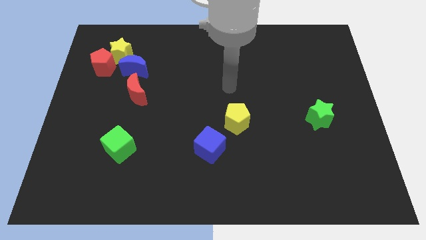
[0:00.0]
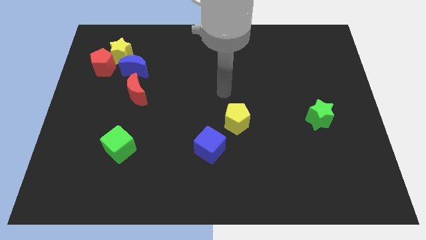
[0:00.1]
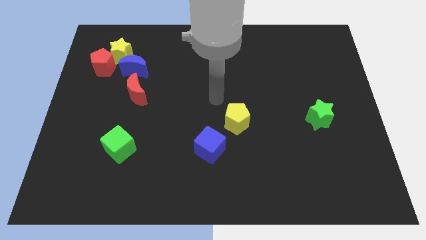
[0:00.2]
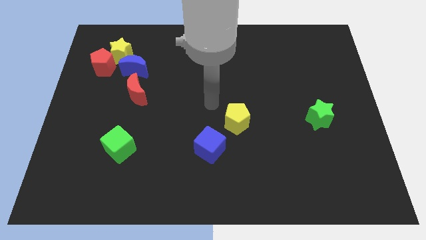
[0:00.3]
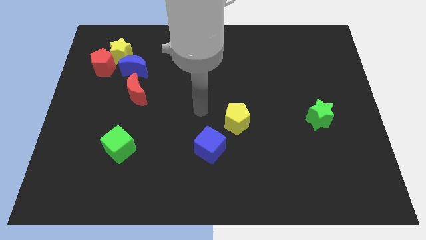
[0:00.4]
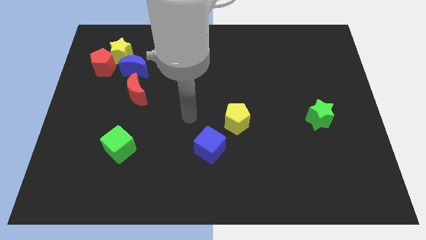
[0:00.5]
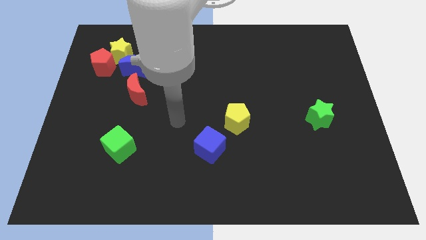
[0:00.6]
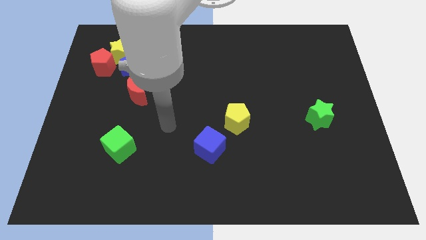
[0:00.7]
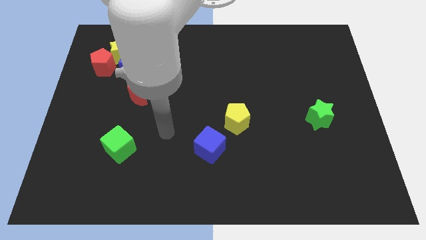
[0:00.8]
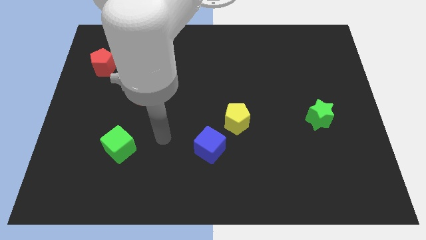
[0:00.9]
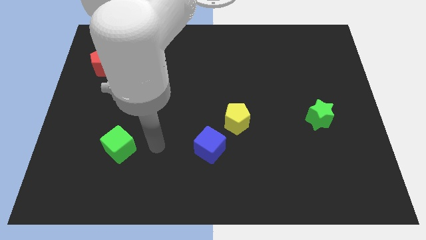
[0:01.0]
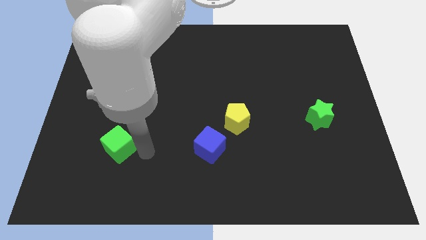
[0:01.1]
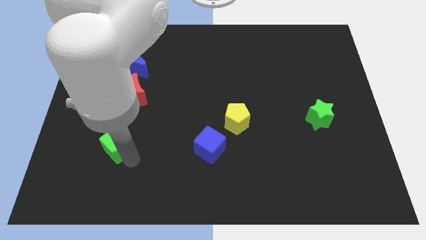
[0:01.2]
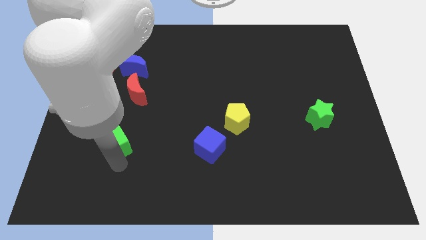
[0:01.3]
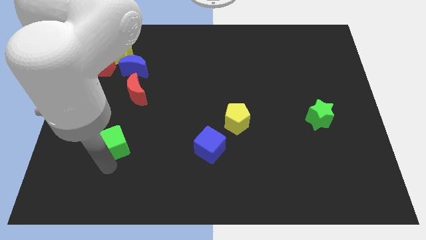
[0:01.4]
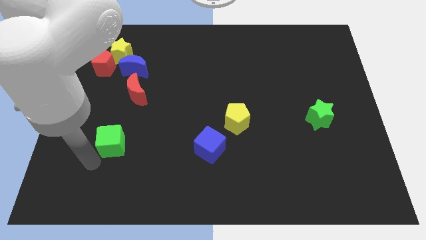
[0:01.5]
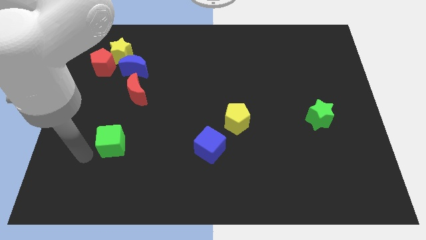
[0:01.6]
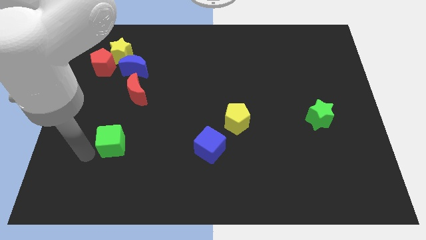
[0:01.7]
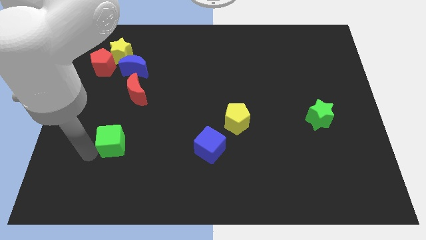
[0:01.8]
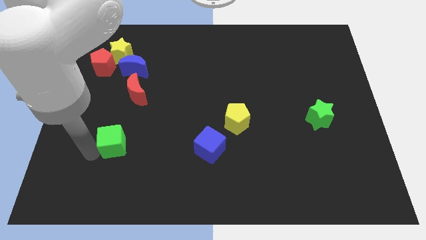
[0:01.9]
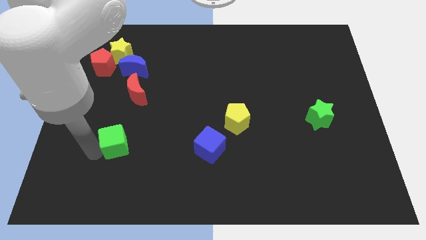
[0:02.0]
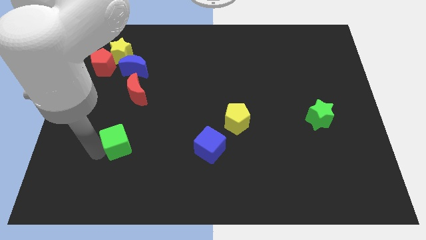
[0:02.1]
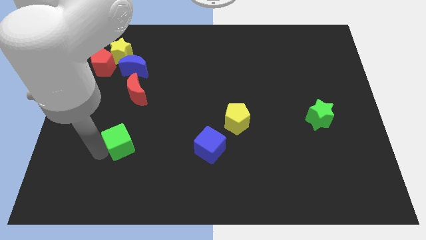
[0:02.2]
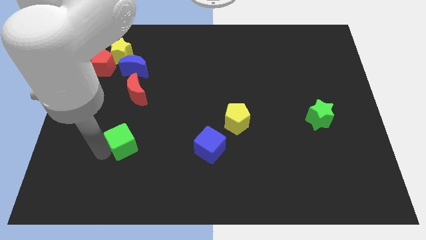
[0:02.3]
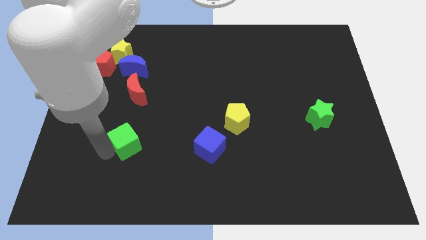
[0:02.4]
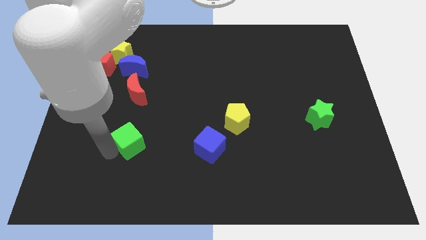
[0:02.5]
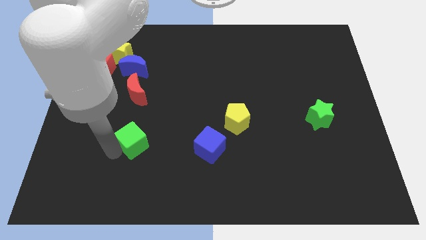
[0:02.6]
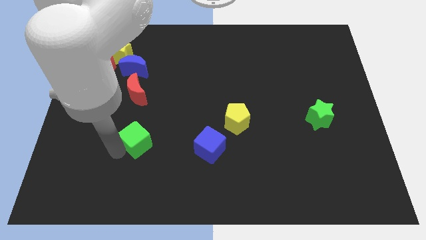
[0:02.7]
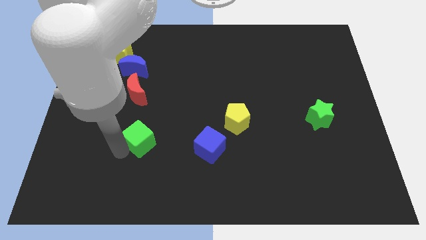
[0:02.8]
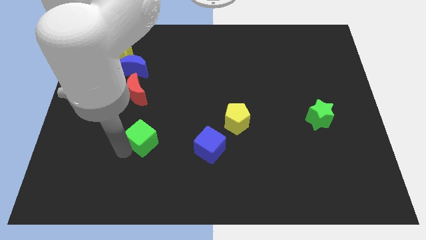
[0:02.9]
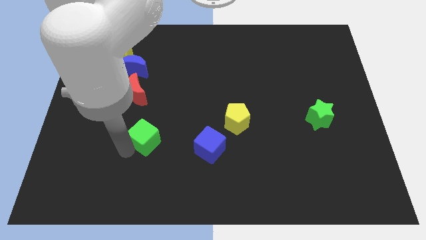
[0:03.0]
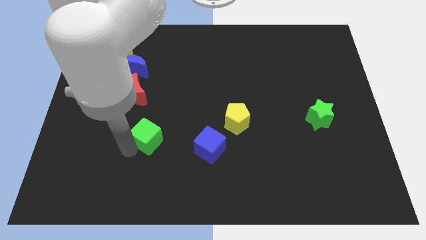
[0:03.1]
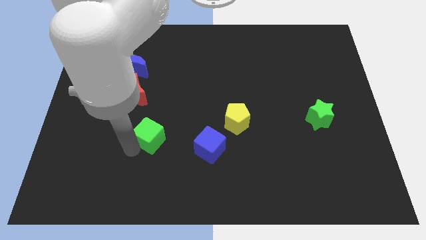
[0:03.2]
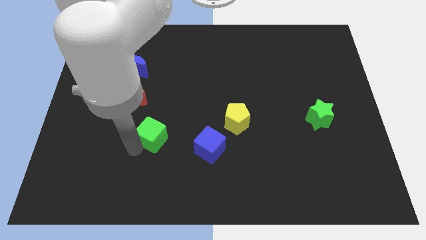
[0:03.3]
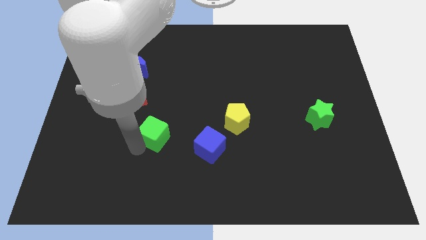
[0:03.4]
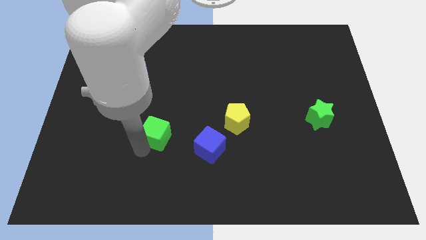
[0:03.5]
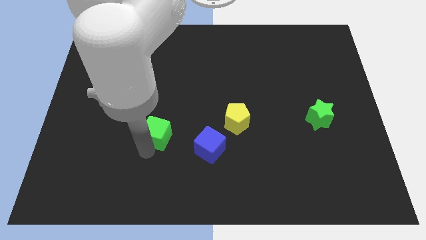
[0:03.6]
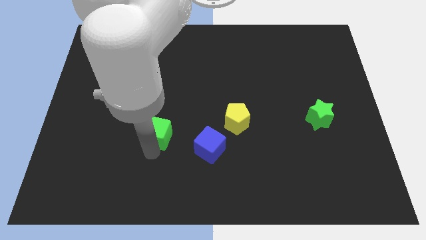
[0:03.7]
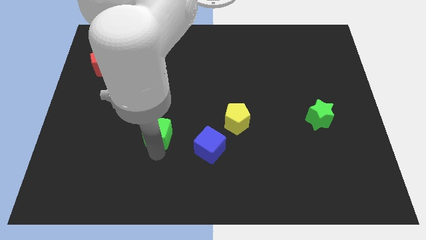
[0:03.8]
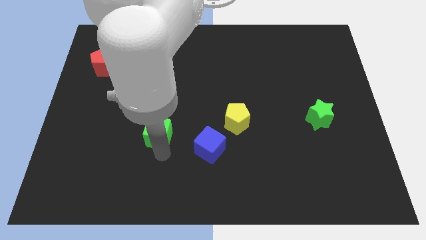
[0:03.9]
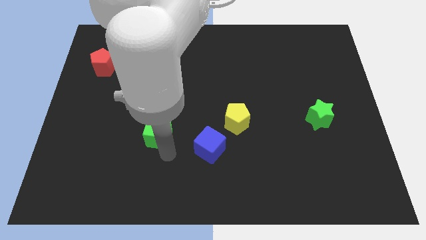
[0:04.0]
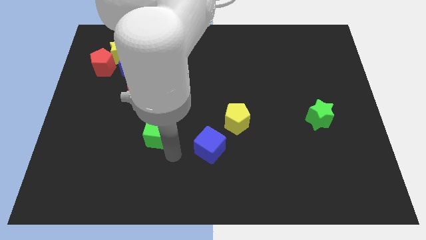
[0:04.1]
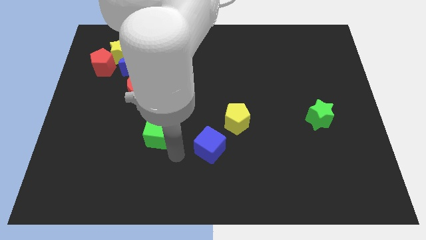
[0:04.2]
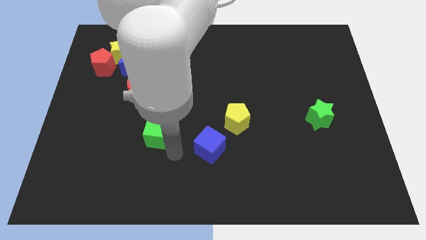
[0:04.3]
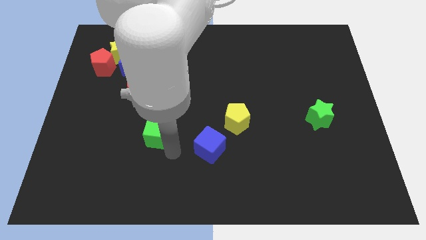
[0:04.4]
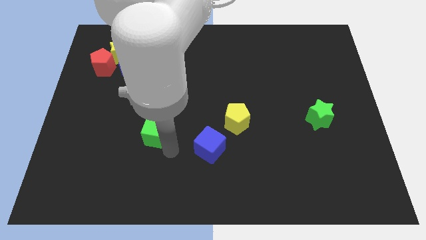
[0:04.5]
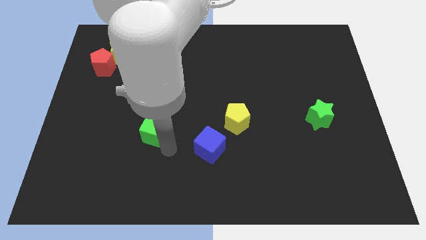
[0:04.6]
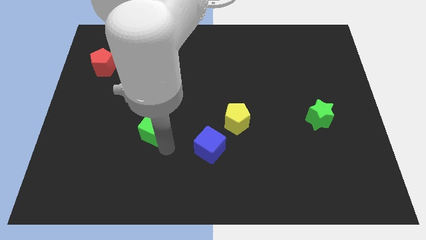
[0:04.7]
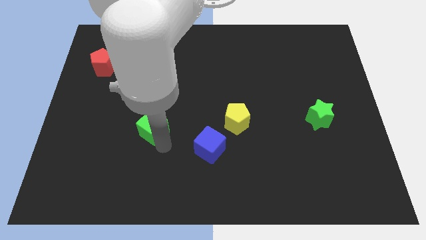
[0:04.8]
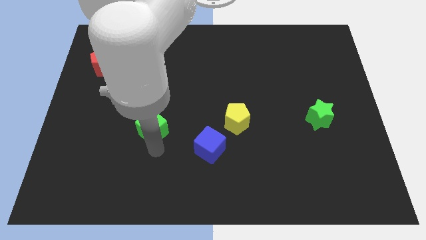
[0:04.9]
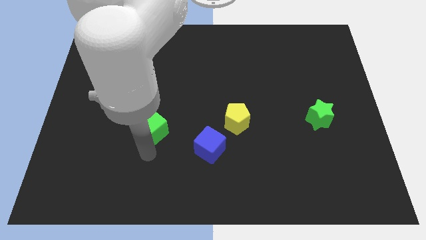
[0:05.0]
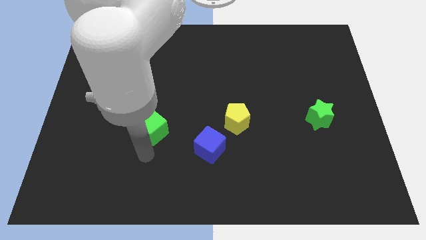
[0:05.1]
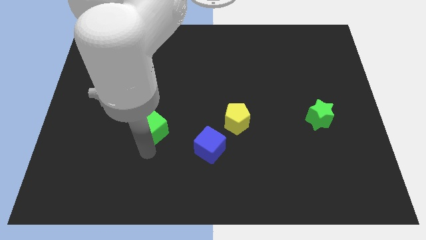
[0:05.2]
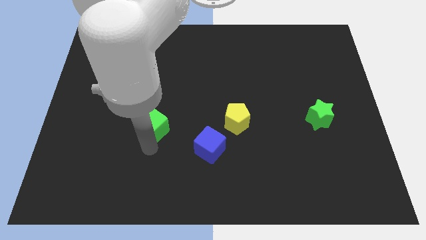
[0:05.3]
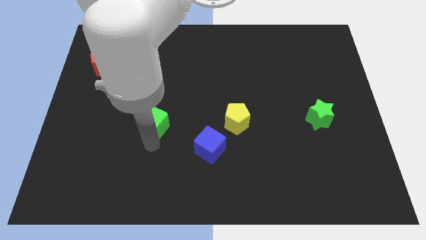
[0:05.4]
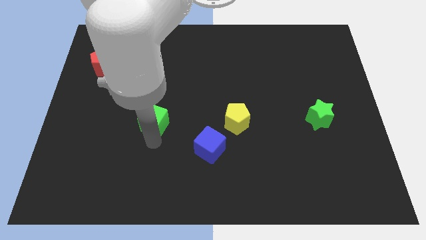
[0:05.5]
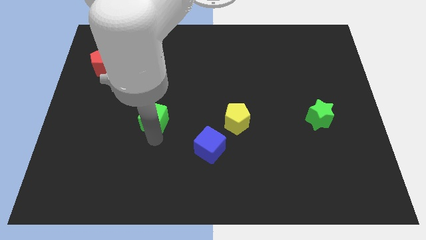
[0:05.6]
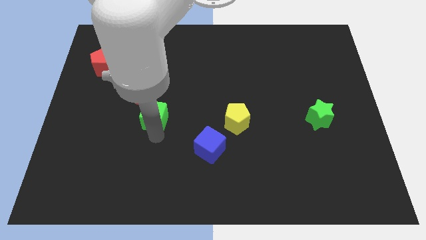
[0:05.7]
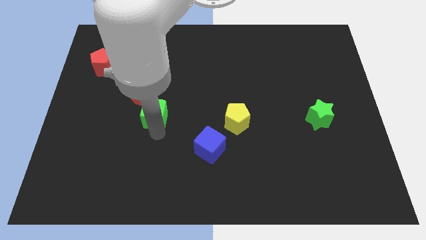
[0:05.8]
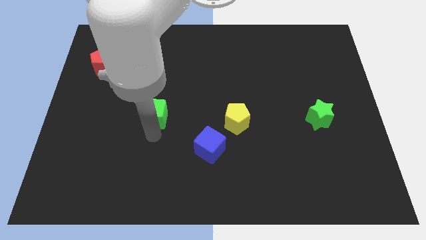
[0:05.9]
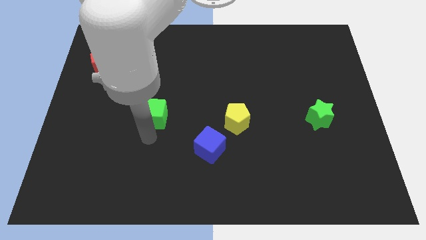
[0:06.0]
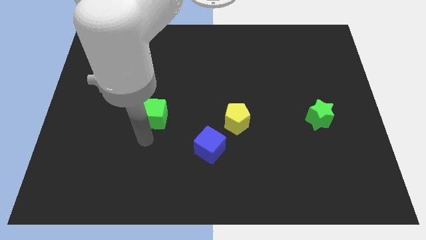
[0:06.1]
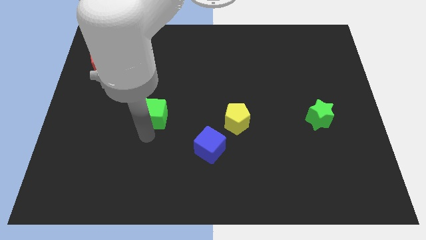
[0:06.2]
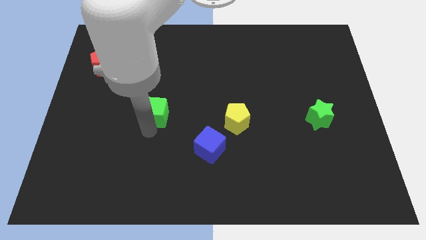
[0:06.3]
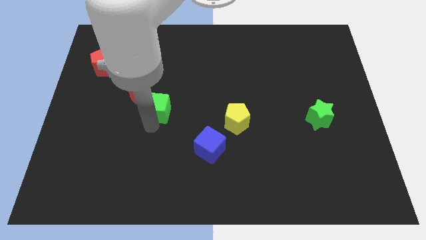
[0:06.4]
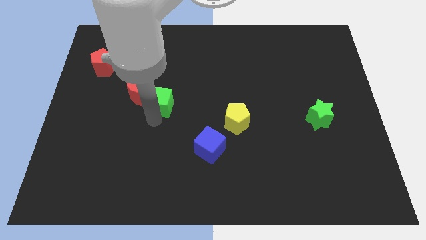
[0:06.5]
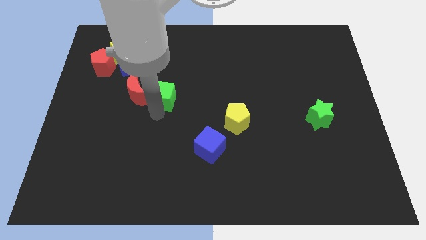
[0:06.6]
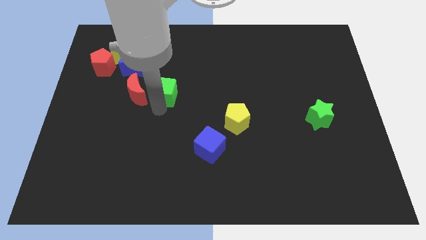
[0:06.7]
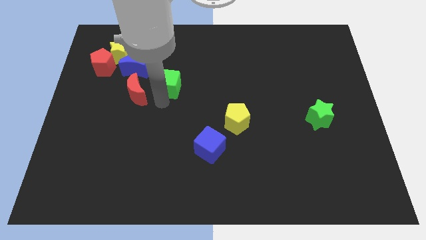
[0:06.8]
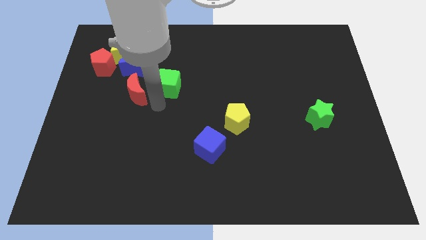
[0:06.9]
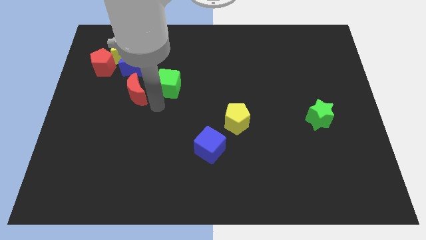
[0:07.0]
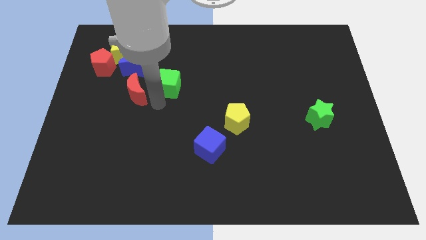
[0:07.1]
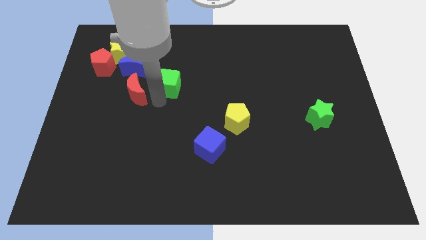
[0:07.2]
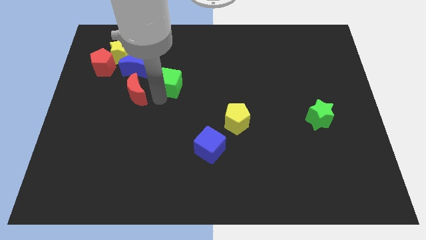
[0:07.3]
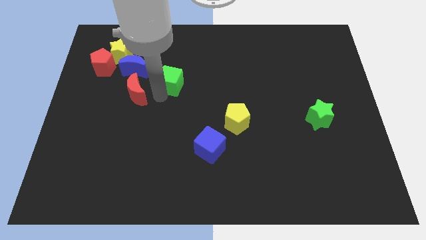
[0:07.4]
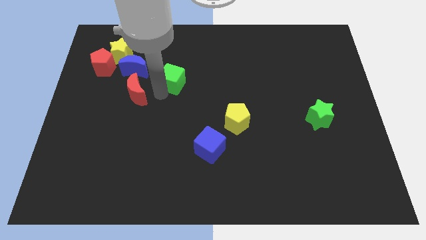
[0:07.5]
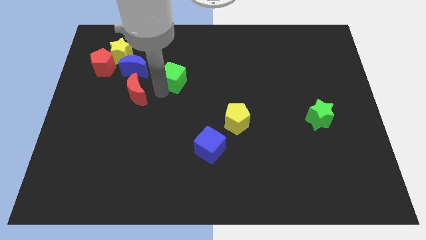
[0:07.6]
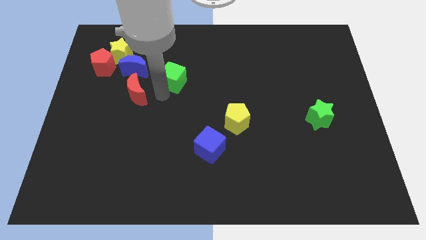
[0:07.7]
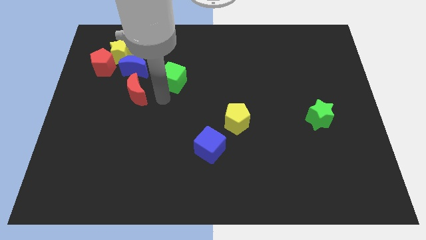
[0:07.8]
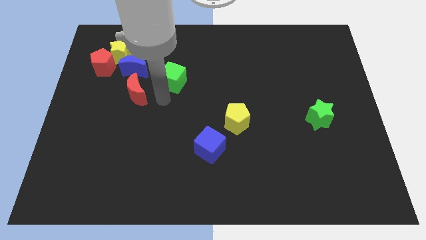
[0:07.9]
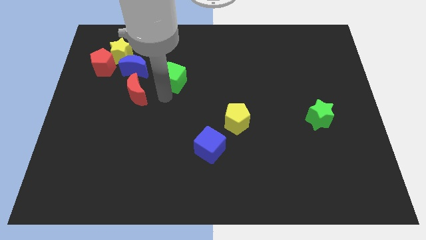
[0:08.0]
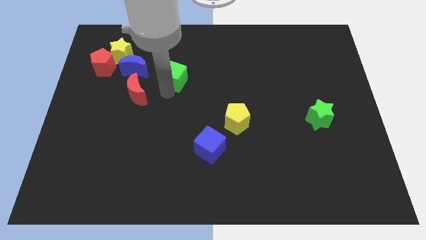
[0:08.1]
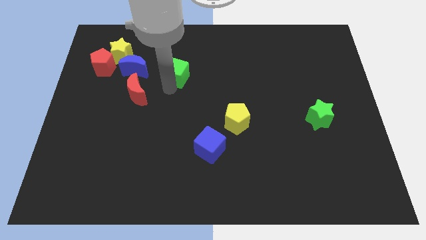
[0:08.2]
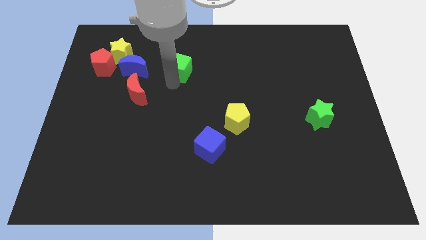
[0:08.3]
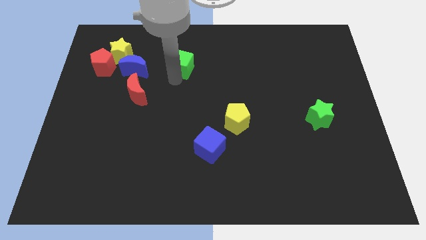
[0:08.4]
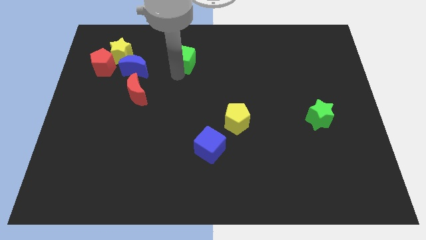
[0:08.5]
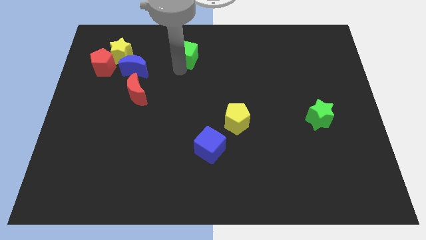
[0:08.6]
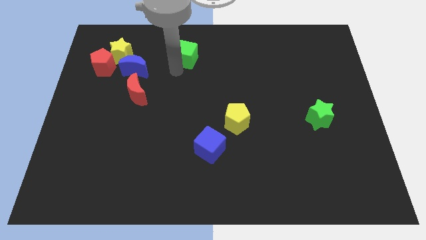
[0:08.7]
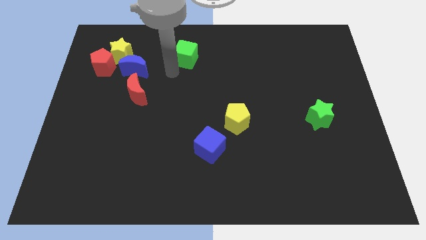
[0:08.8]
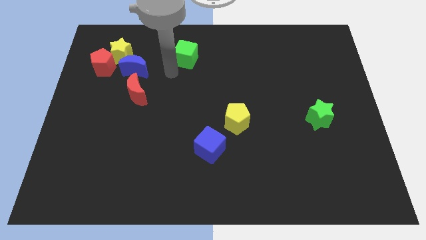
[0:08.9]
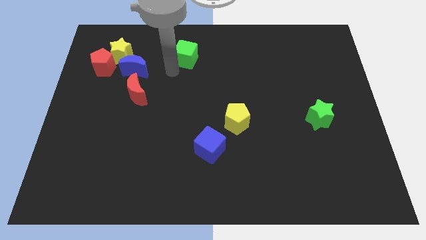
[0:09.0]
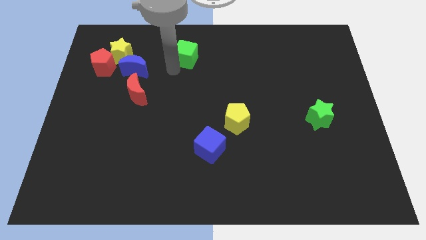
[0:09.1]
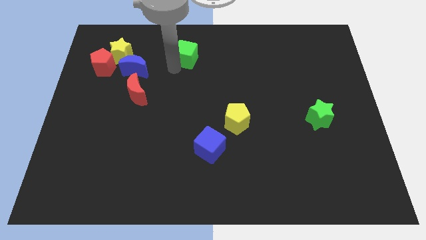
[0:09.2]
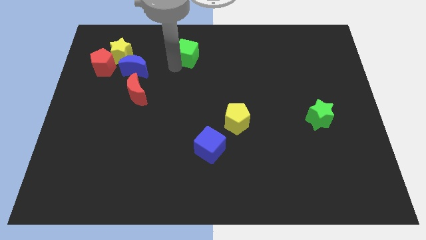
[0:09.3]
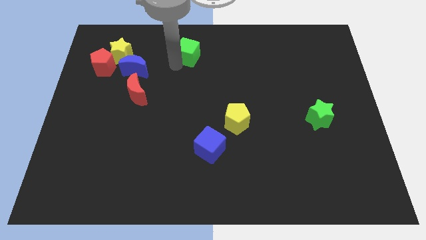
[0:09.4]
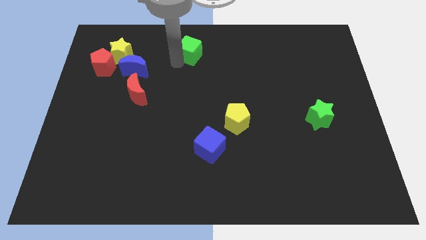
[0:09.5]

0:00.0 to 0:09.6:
slide the green cube to the top side
